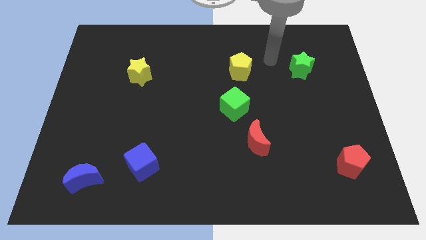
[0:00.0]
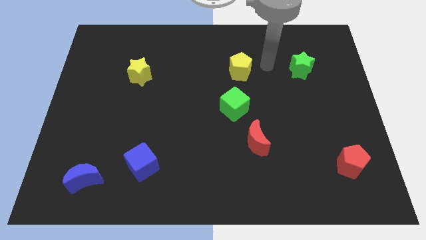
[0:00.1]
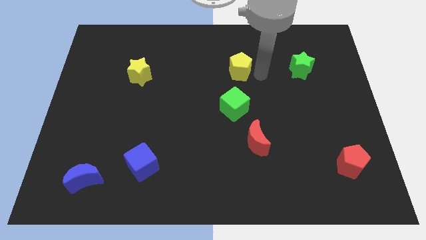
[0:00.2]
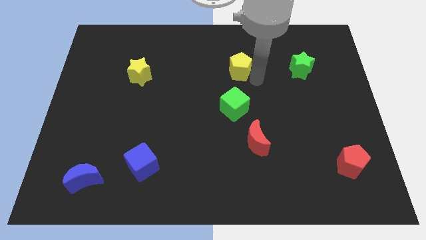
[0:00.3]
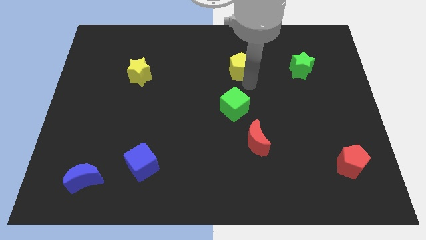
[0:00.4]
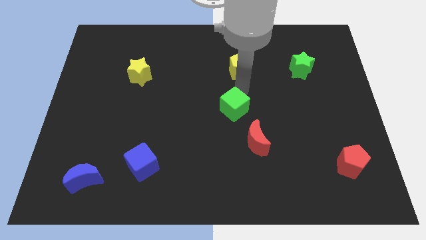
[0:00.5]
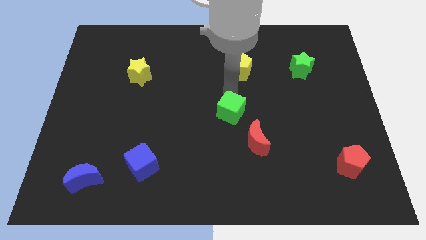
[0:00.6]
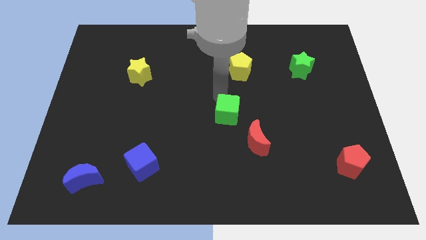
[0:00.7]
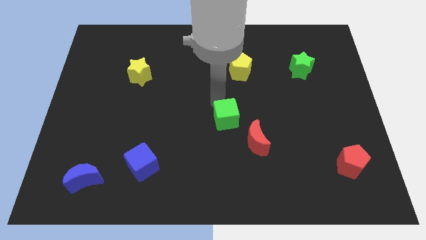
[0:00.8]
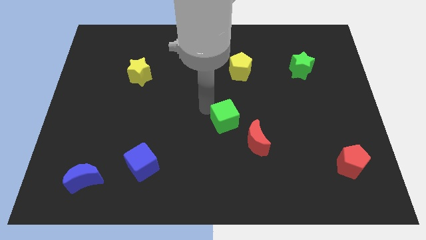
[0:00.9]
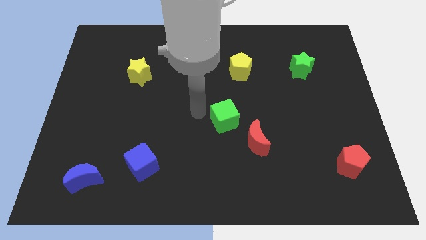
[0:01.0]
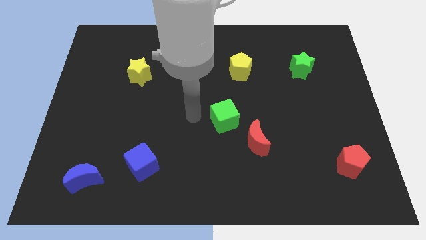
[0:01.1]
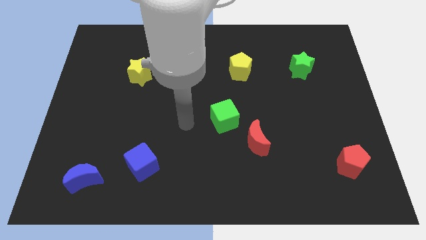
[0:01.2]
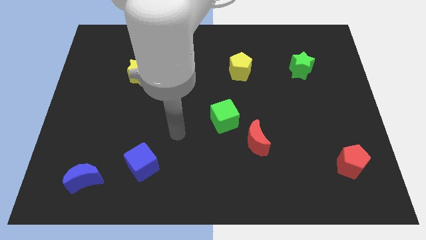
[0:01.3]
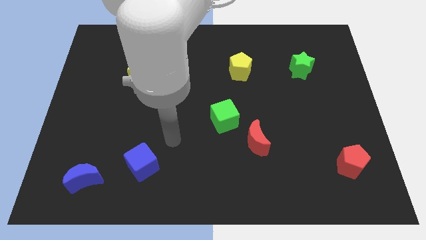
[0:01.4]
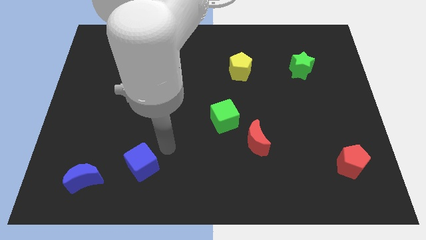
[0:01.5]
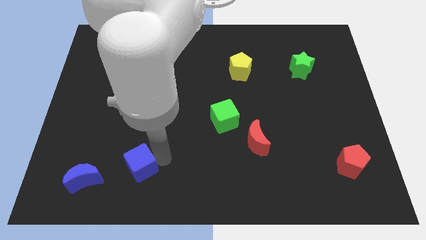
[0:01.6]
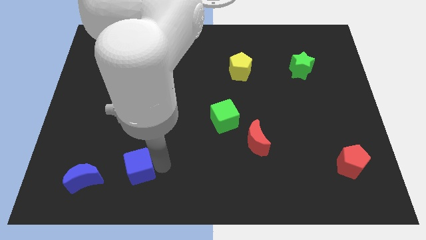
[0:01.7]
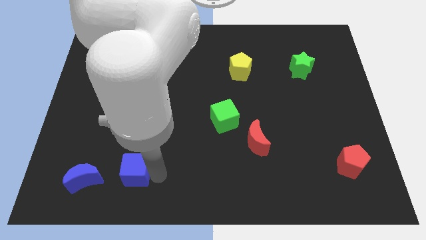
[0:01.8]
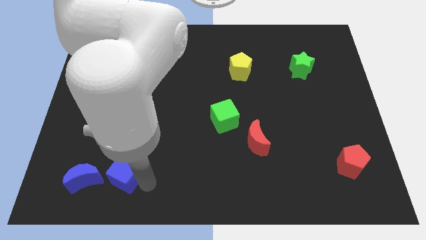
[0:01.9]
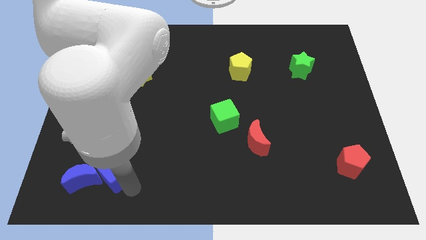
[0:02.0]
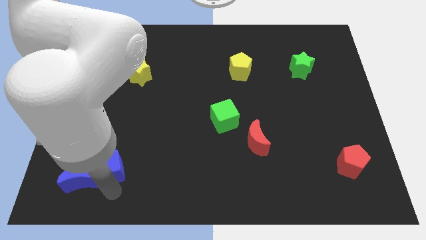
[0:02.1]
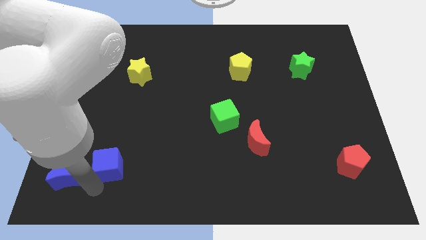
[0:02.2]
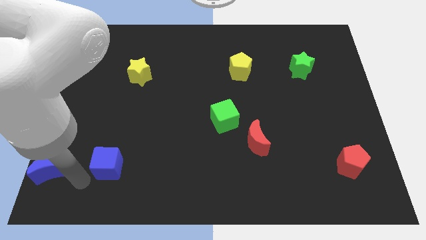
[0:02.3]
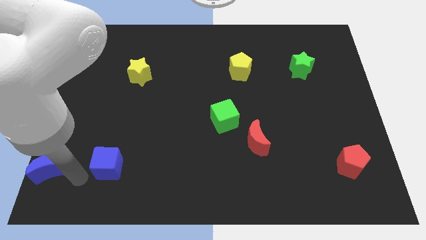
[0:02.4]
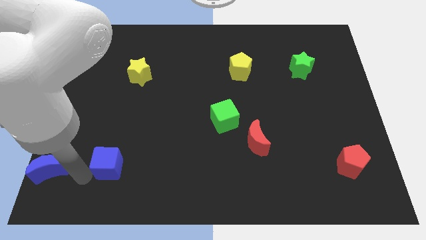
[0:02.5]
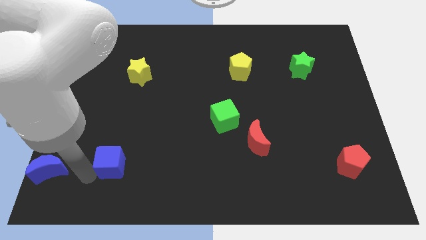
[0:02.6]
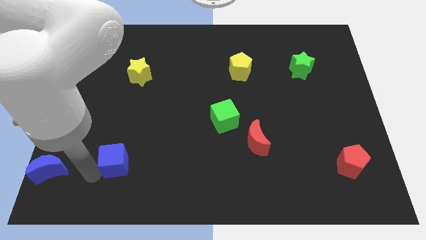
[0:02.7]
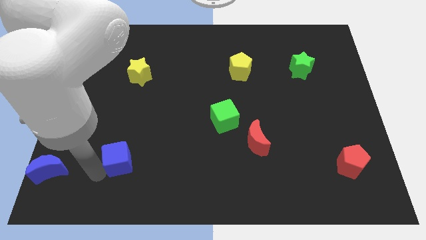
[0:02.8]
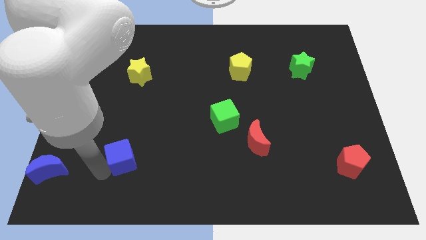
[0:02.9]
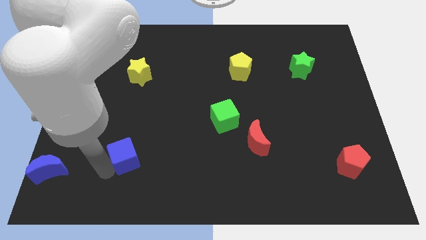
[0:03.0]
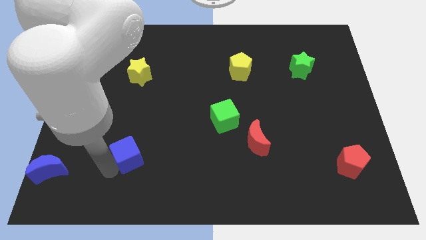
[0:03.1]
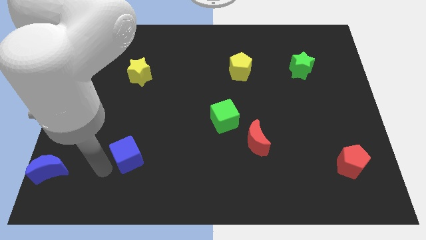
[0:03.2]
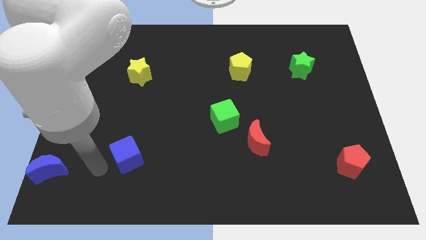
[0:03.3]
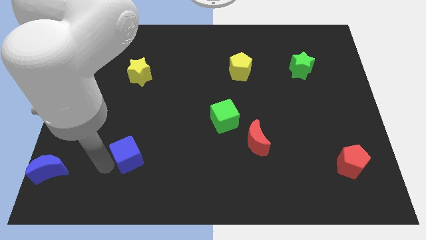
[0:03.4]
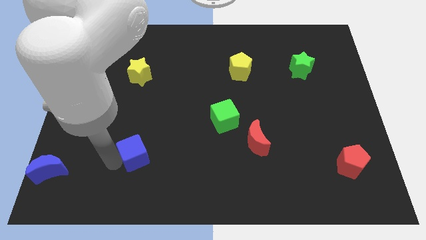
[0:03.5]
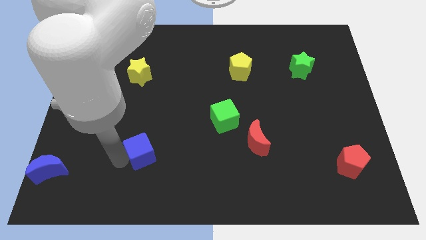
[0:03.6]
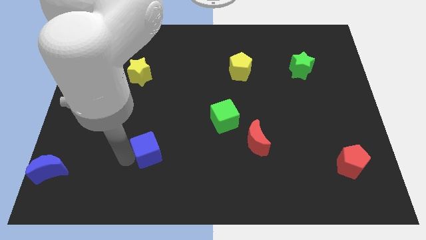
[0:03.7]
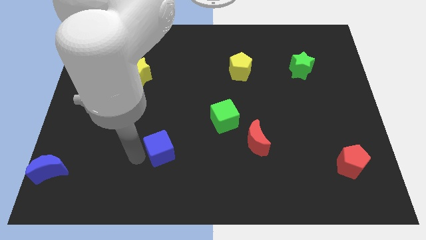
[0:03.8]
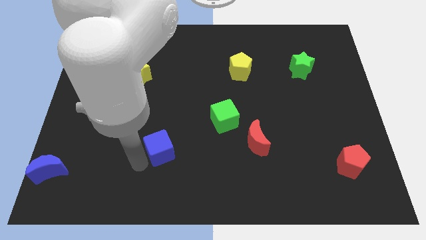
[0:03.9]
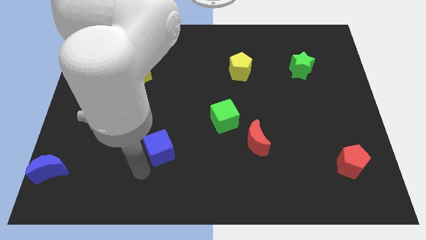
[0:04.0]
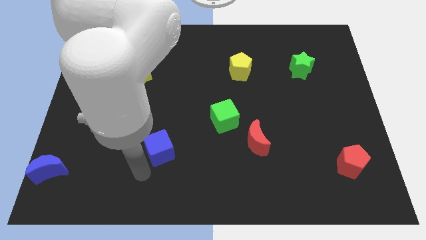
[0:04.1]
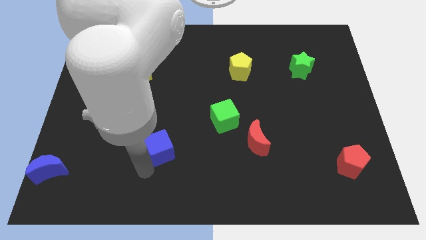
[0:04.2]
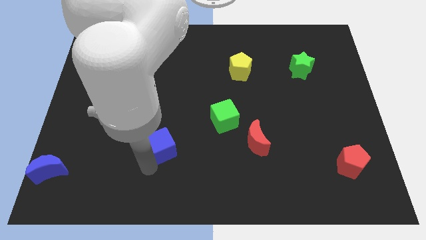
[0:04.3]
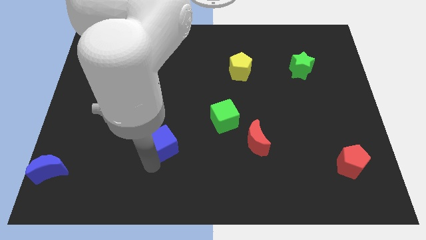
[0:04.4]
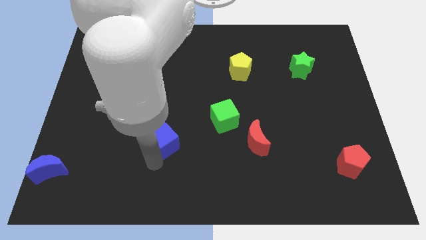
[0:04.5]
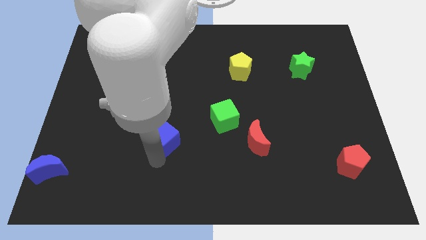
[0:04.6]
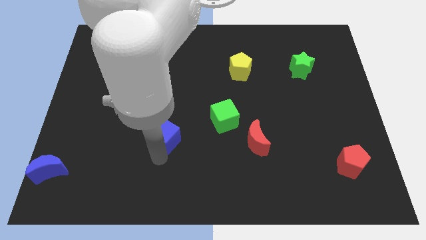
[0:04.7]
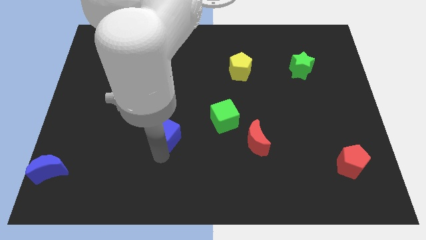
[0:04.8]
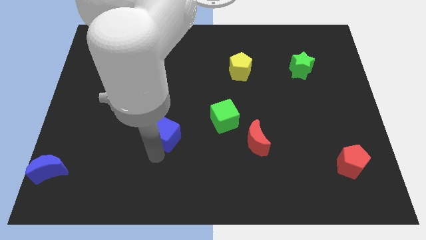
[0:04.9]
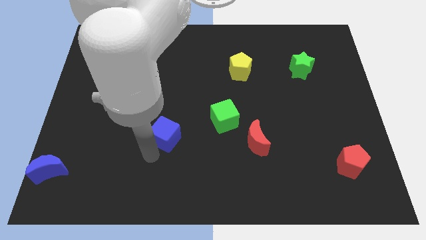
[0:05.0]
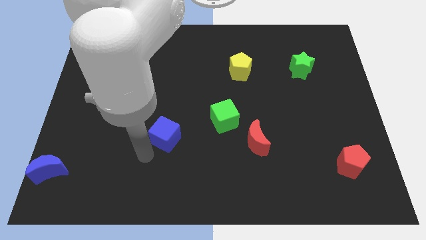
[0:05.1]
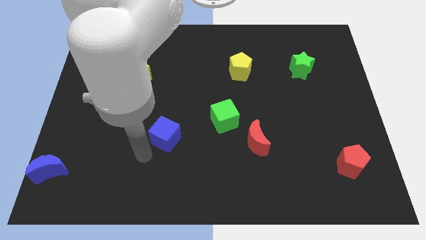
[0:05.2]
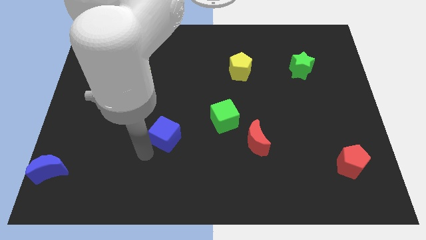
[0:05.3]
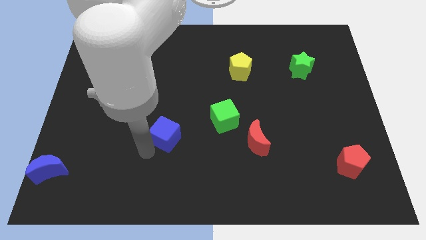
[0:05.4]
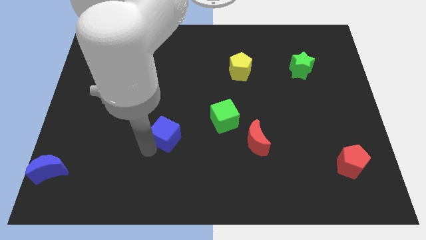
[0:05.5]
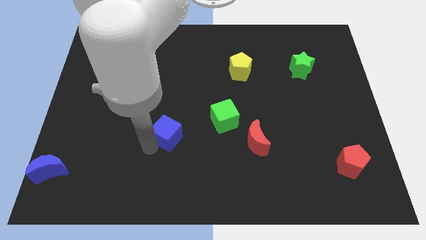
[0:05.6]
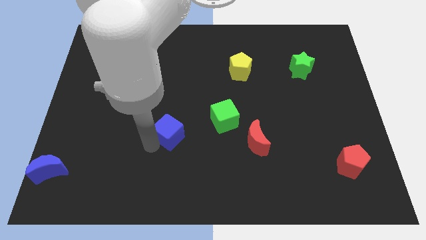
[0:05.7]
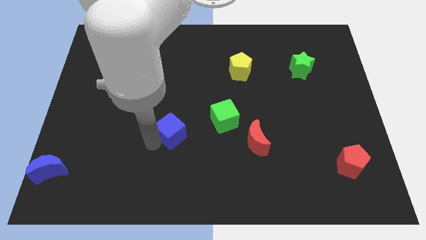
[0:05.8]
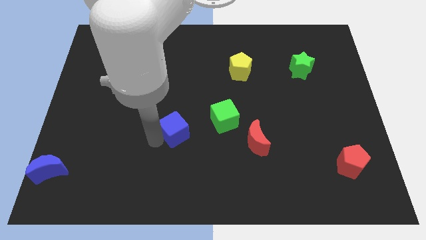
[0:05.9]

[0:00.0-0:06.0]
slide the blue cube to the center
